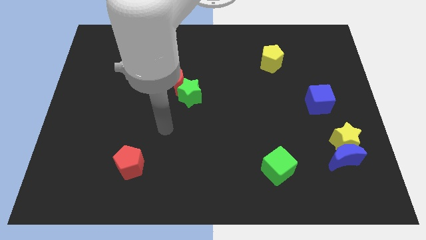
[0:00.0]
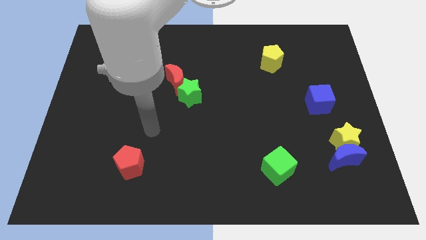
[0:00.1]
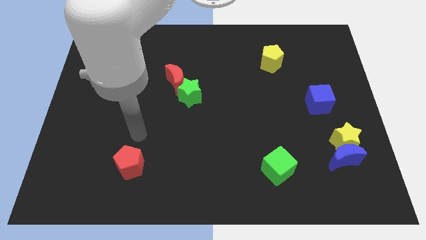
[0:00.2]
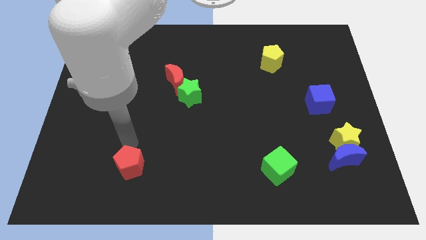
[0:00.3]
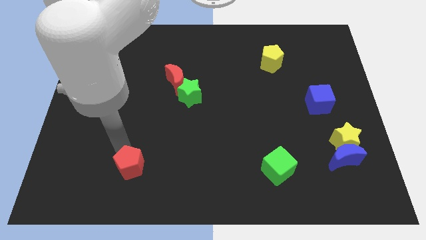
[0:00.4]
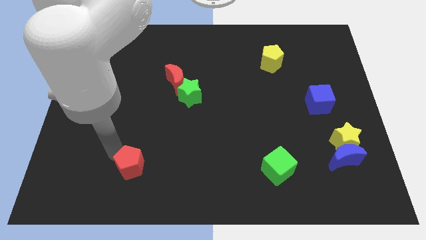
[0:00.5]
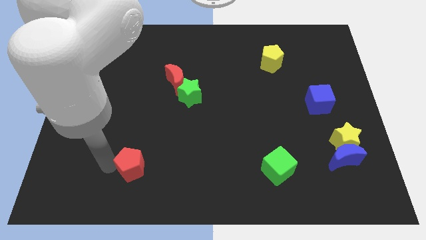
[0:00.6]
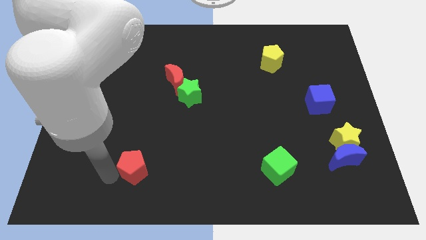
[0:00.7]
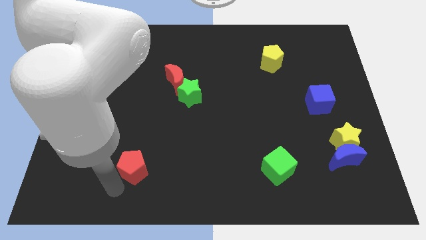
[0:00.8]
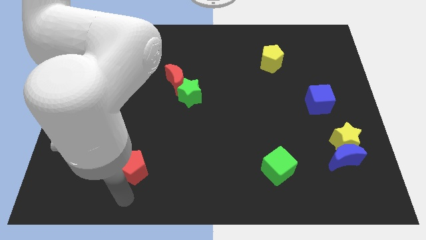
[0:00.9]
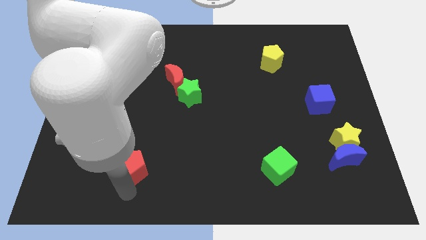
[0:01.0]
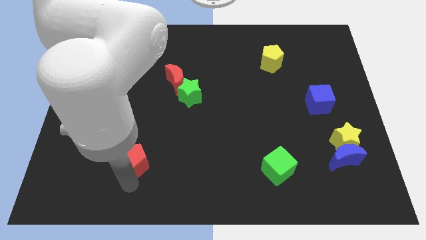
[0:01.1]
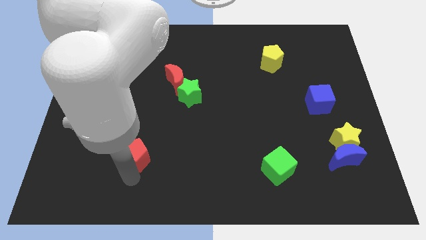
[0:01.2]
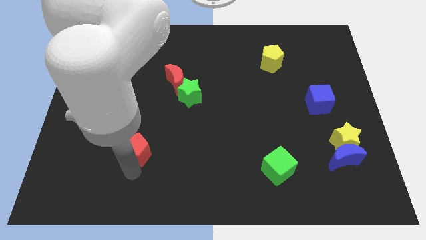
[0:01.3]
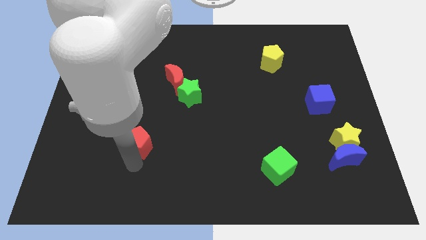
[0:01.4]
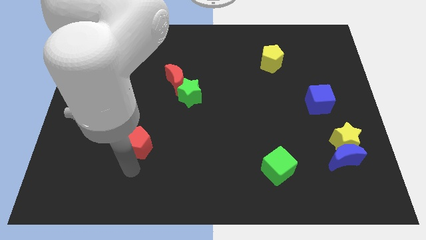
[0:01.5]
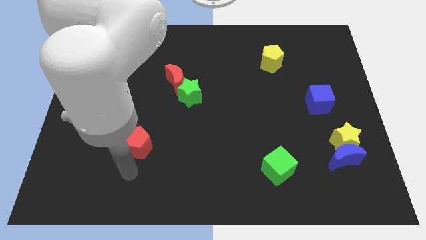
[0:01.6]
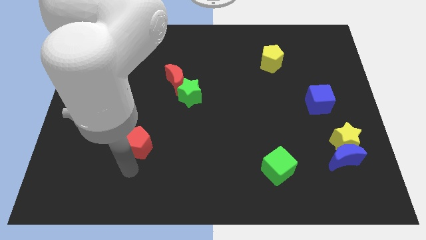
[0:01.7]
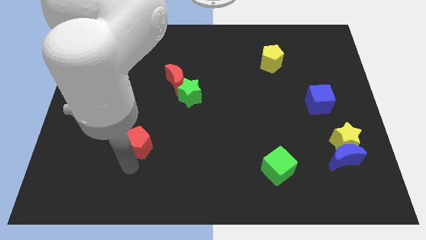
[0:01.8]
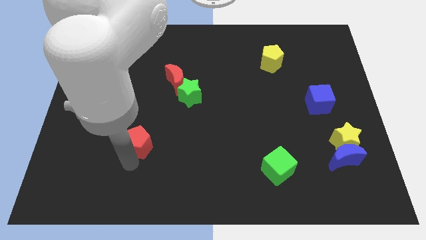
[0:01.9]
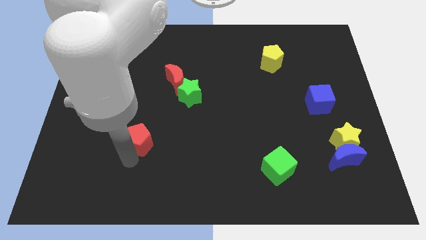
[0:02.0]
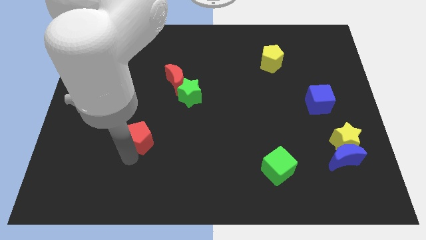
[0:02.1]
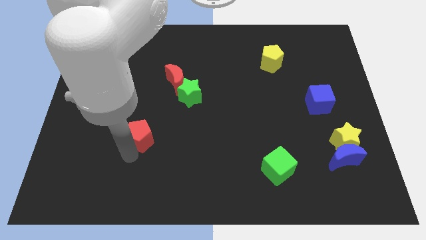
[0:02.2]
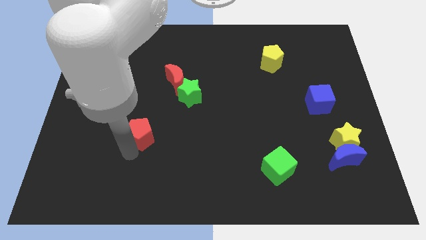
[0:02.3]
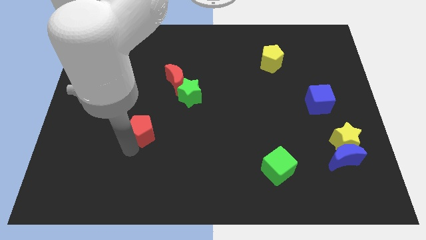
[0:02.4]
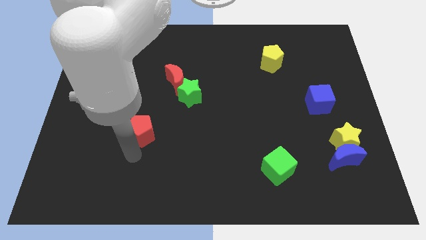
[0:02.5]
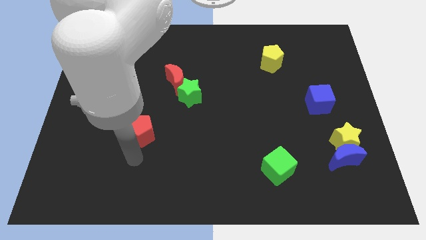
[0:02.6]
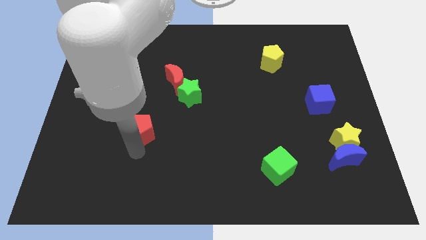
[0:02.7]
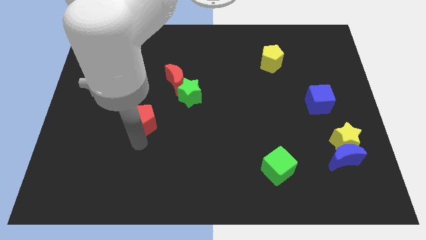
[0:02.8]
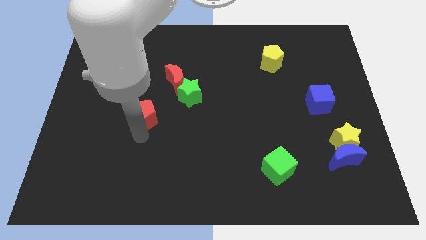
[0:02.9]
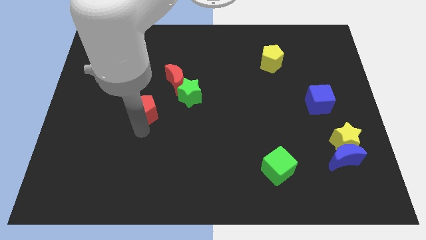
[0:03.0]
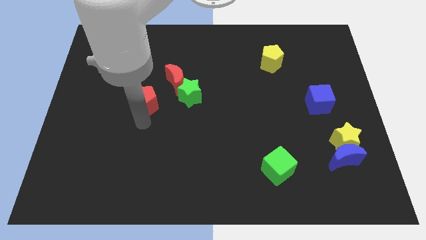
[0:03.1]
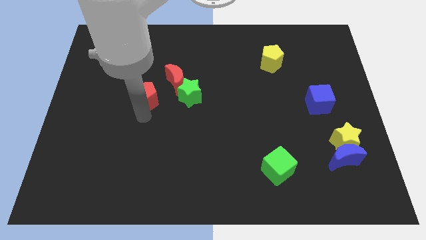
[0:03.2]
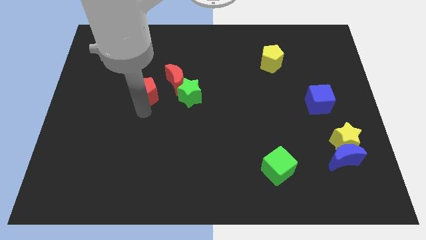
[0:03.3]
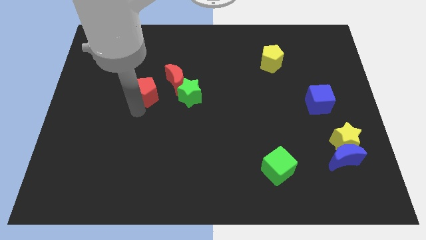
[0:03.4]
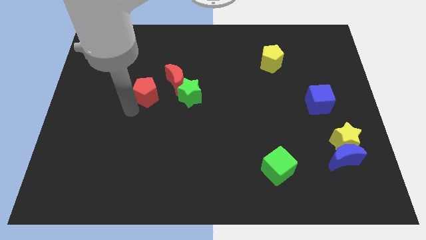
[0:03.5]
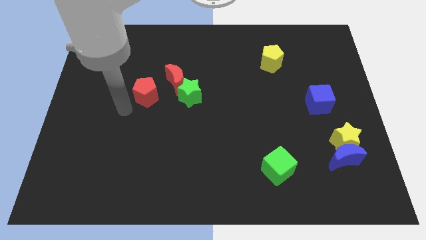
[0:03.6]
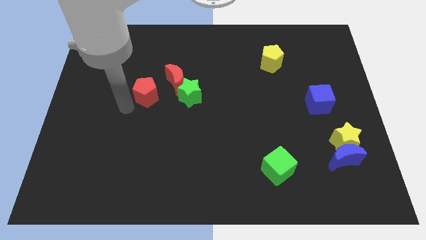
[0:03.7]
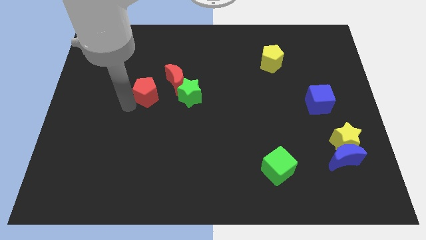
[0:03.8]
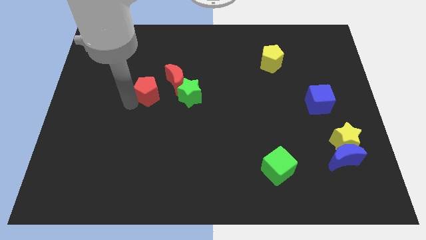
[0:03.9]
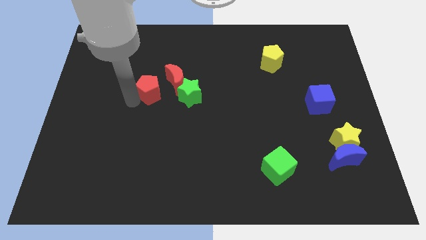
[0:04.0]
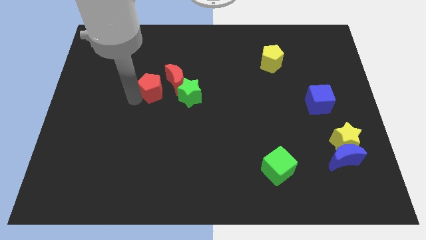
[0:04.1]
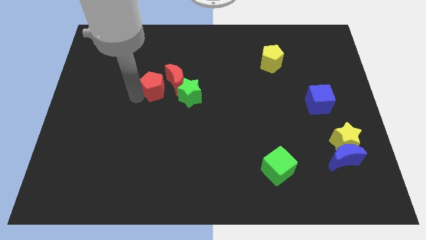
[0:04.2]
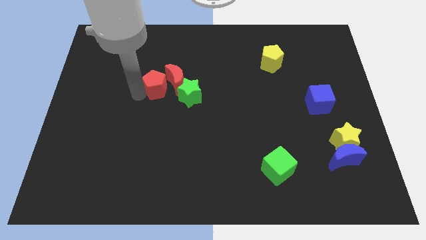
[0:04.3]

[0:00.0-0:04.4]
put the red pentagon diagonally up and to the left of the green star

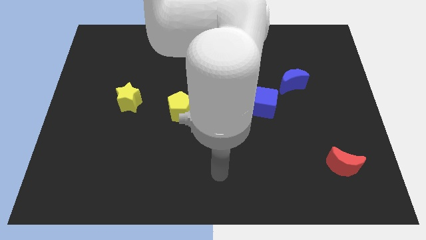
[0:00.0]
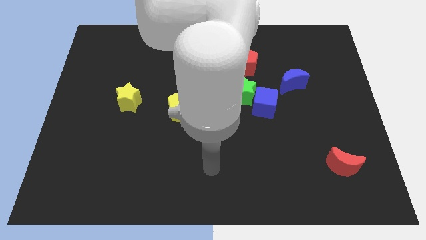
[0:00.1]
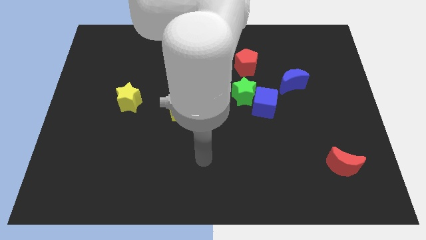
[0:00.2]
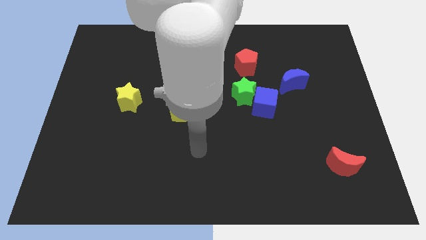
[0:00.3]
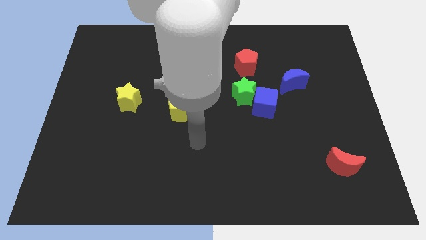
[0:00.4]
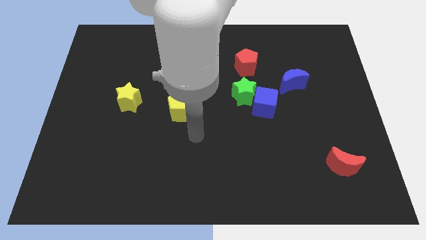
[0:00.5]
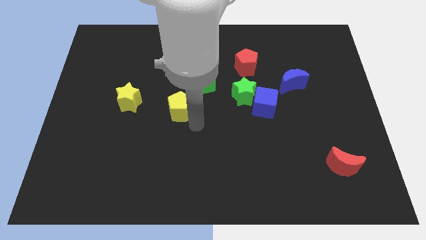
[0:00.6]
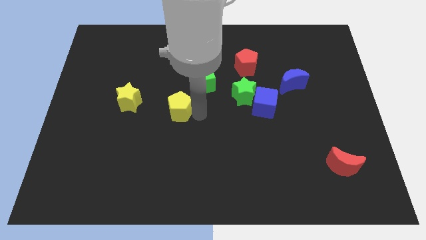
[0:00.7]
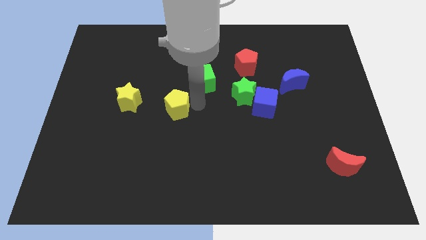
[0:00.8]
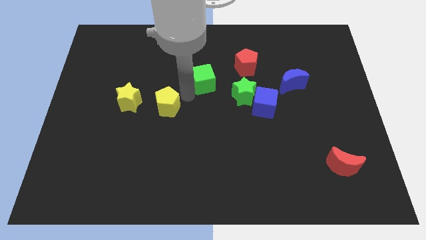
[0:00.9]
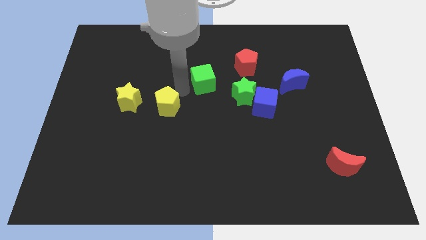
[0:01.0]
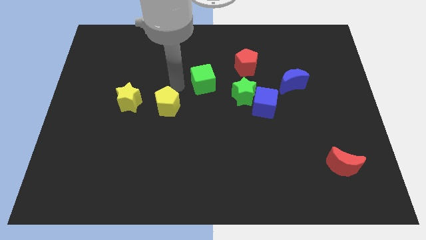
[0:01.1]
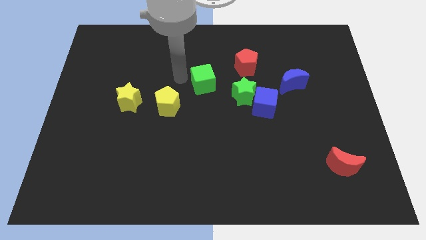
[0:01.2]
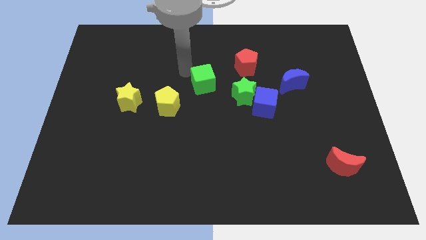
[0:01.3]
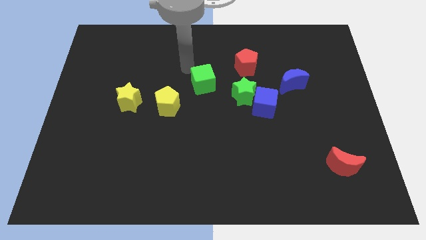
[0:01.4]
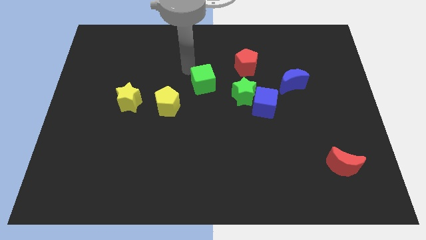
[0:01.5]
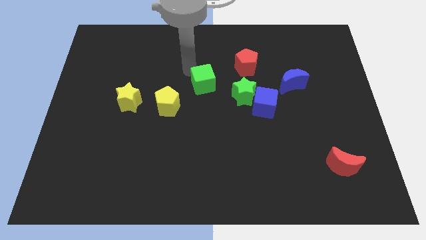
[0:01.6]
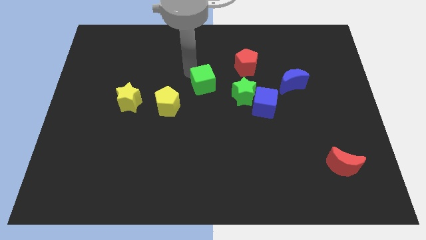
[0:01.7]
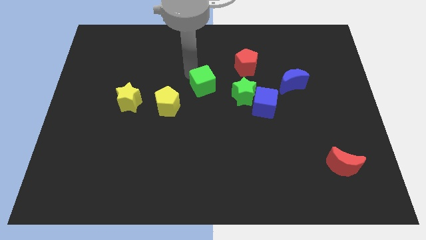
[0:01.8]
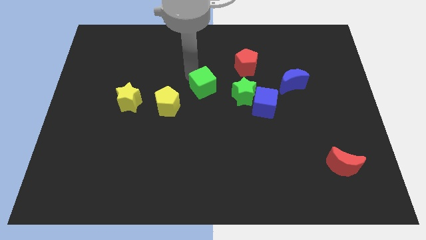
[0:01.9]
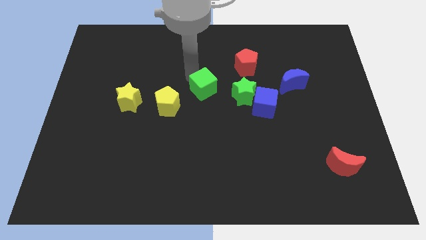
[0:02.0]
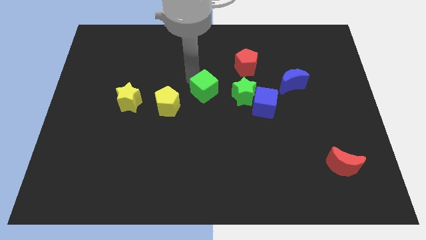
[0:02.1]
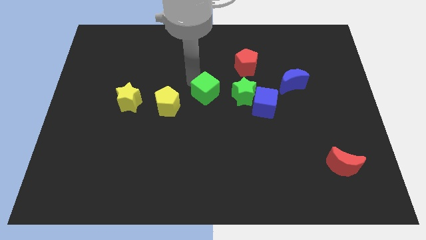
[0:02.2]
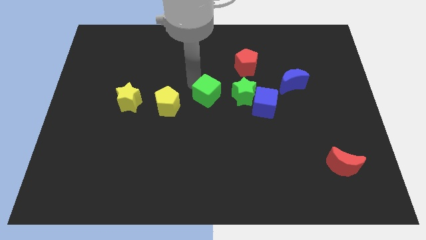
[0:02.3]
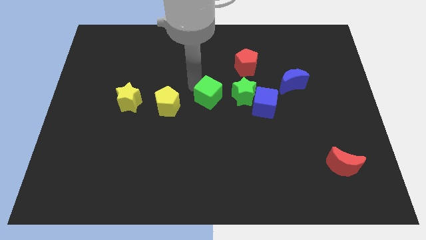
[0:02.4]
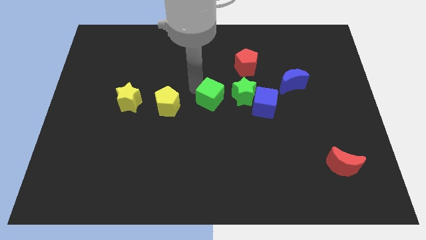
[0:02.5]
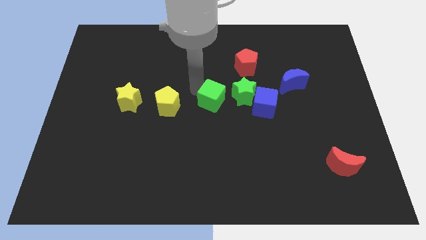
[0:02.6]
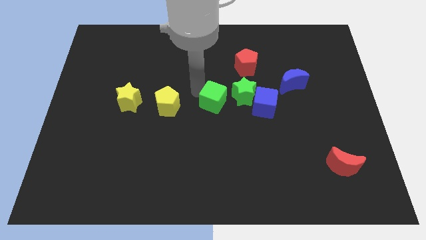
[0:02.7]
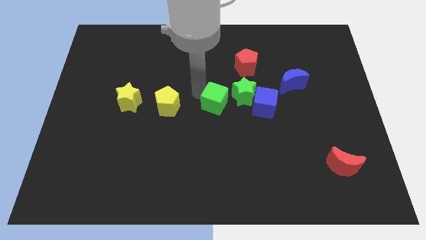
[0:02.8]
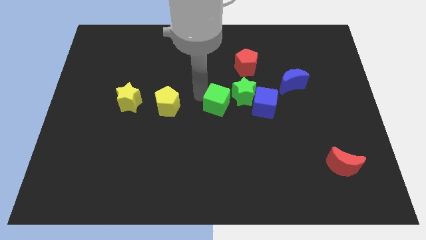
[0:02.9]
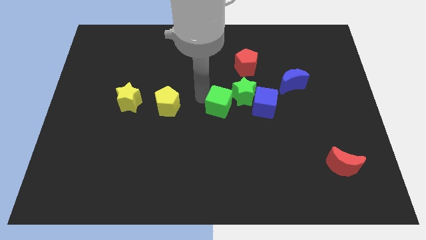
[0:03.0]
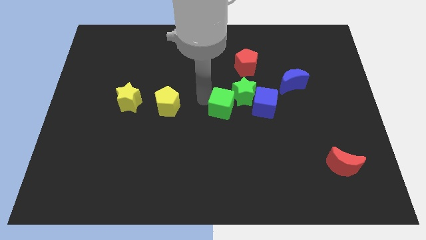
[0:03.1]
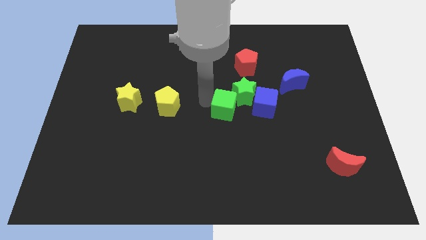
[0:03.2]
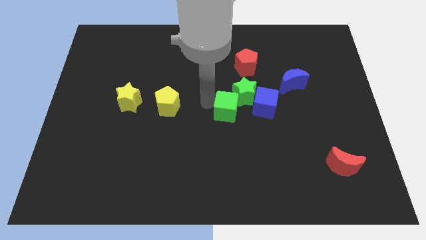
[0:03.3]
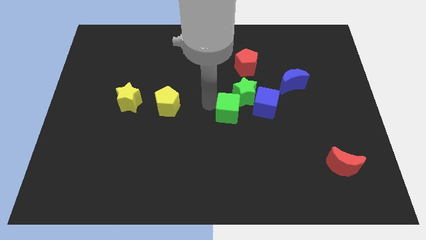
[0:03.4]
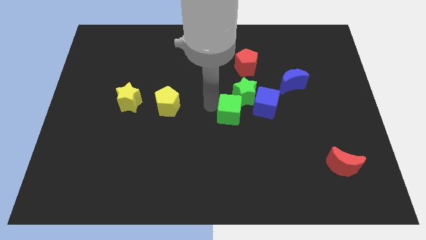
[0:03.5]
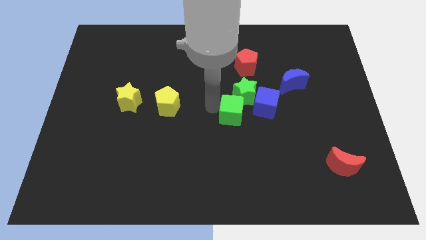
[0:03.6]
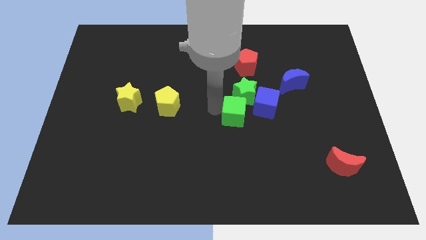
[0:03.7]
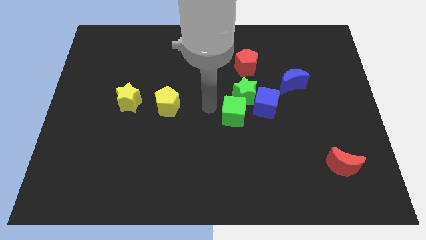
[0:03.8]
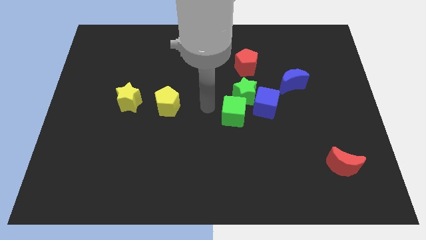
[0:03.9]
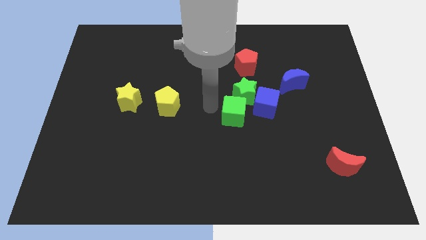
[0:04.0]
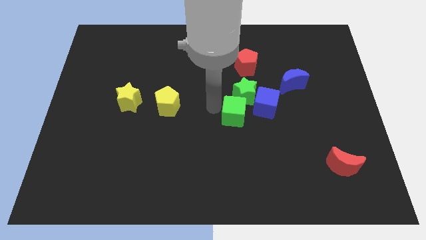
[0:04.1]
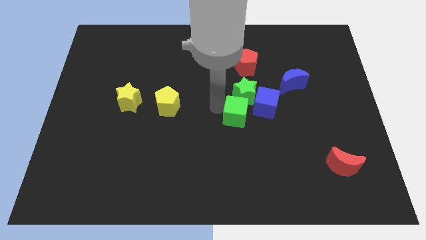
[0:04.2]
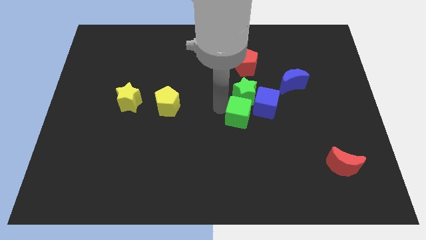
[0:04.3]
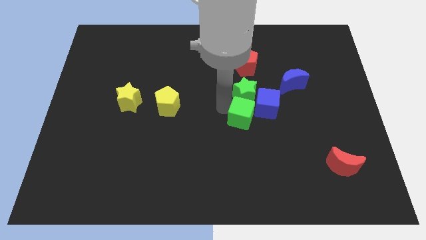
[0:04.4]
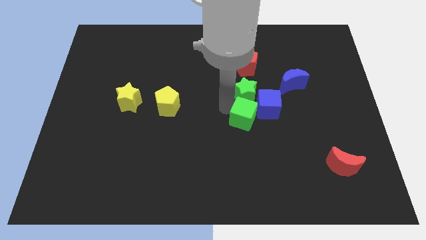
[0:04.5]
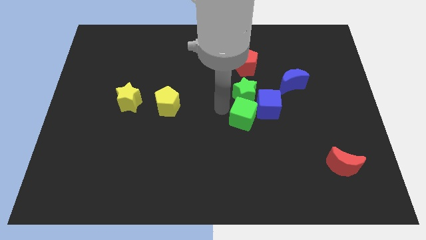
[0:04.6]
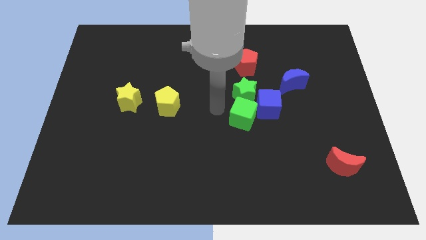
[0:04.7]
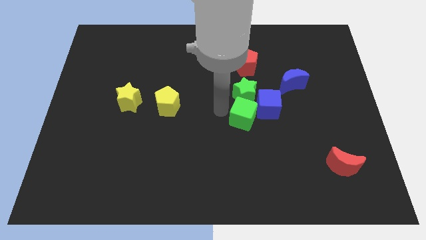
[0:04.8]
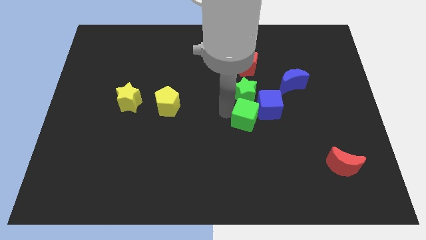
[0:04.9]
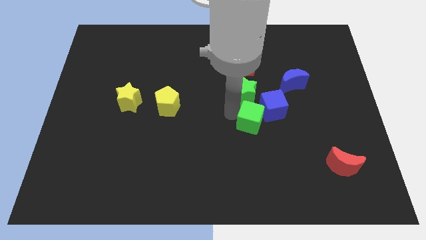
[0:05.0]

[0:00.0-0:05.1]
slide the green cube to the bottom right side of the green star
